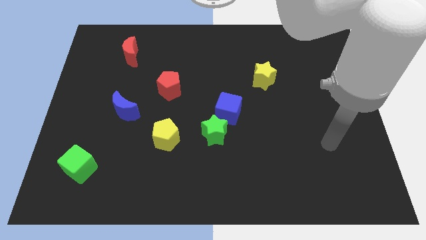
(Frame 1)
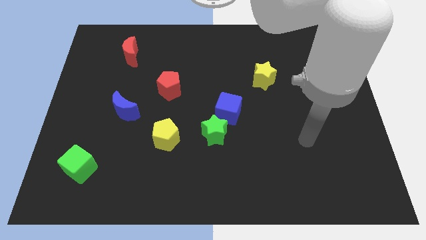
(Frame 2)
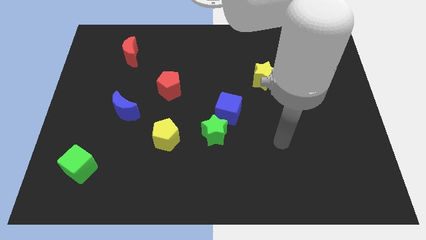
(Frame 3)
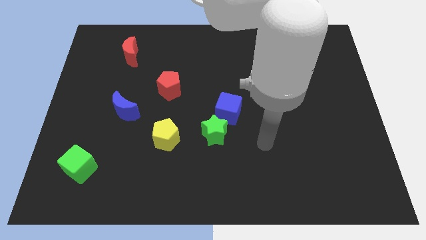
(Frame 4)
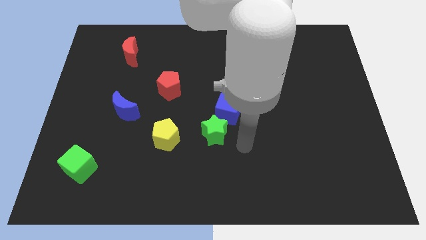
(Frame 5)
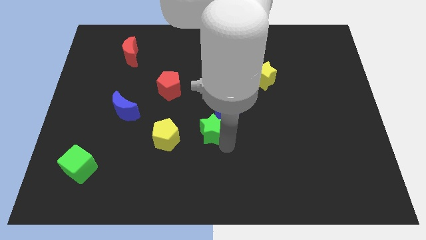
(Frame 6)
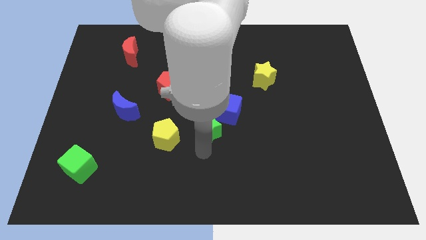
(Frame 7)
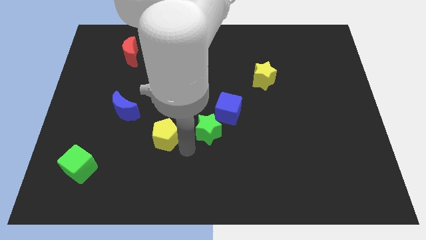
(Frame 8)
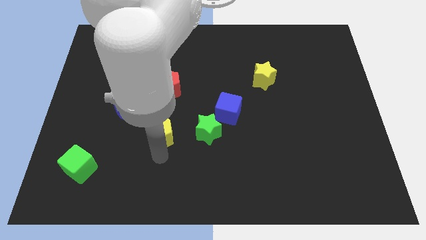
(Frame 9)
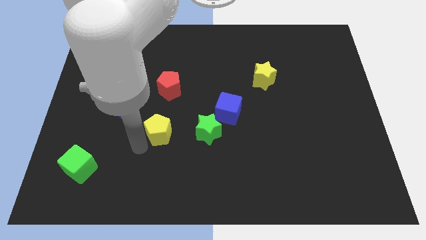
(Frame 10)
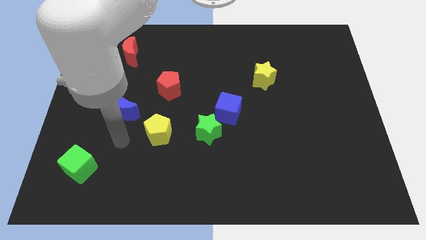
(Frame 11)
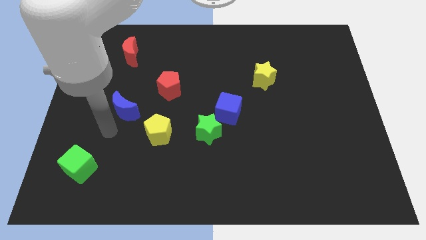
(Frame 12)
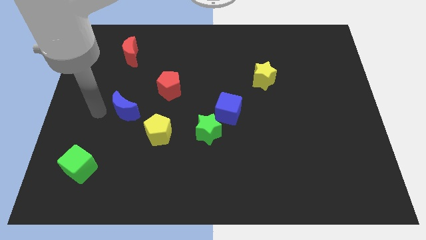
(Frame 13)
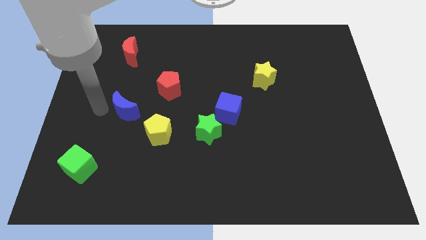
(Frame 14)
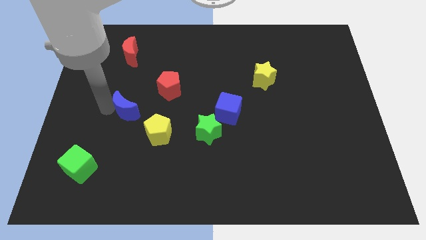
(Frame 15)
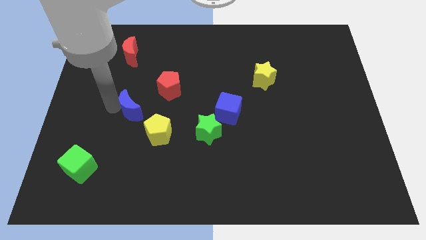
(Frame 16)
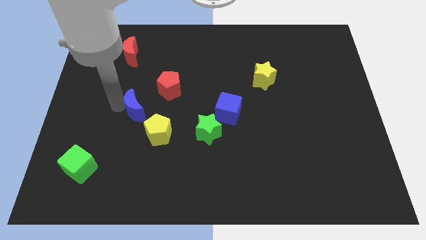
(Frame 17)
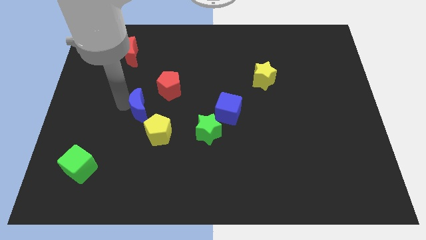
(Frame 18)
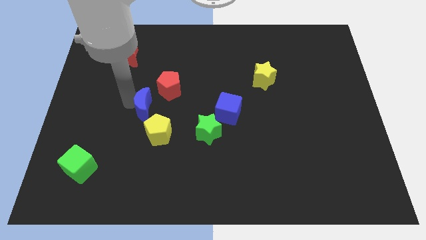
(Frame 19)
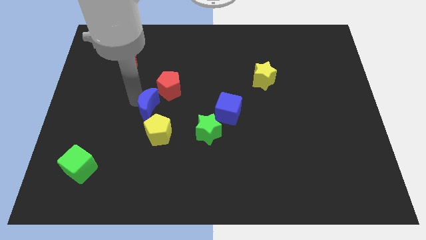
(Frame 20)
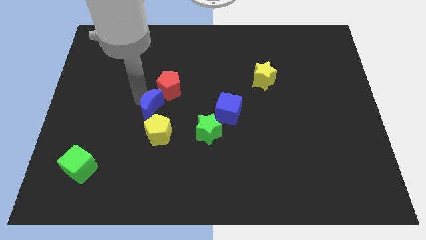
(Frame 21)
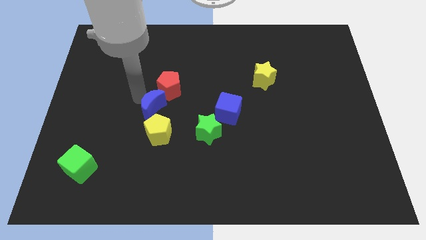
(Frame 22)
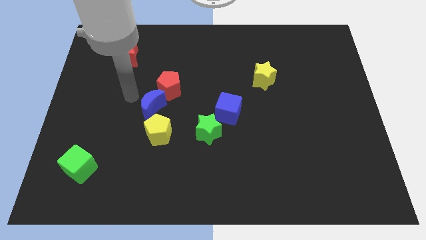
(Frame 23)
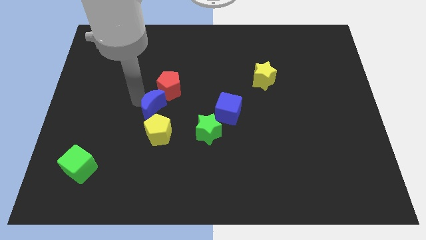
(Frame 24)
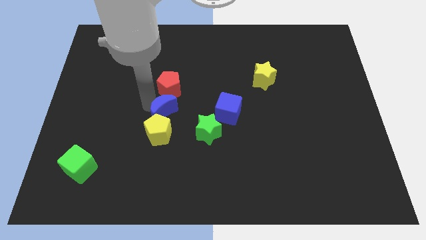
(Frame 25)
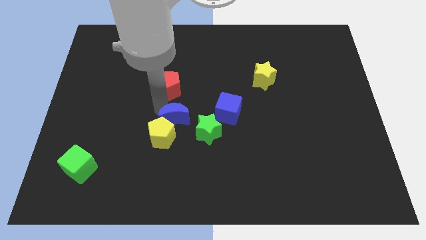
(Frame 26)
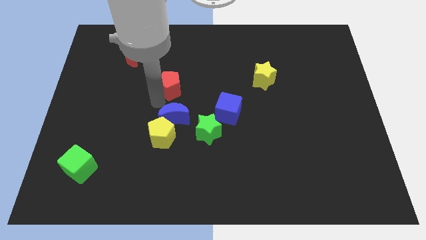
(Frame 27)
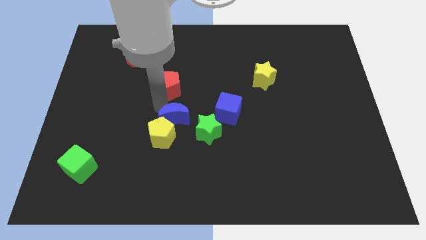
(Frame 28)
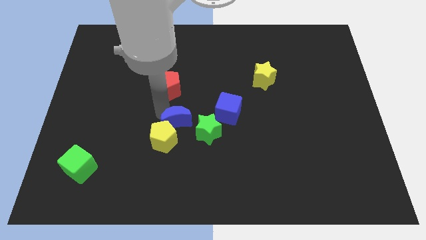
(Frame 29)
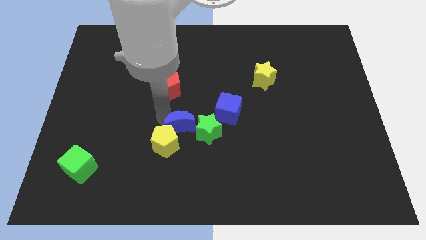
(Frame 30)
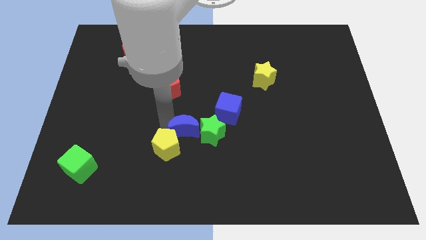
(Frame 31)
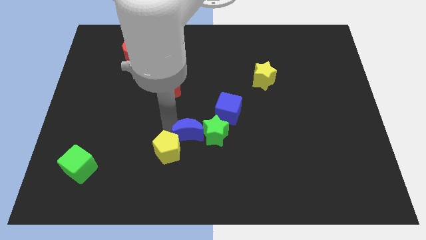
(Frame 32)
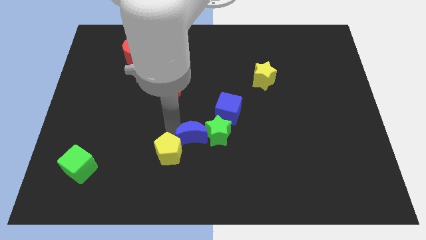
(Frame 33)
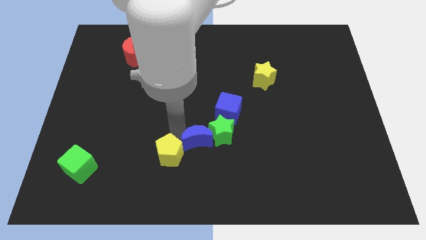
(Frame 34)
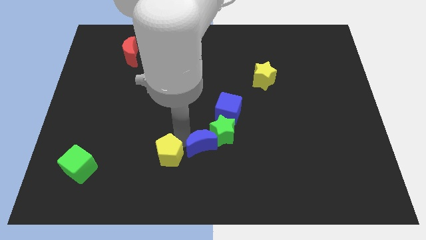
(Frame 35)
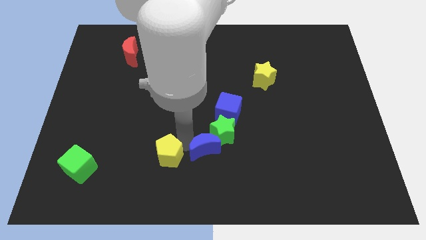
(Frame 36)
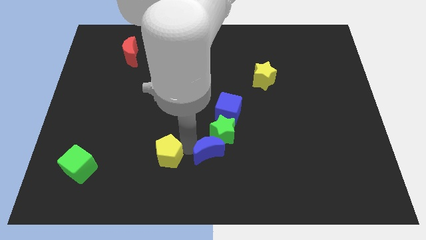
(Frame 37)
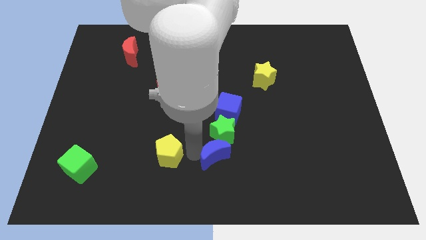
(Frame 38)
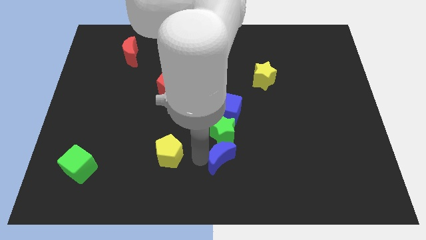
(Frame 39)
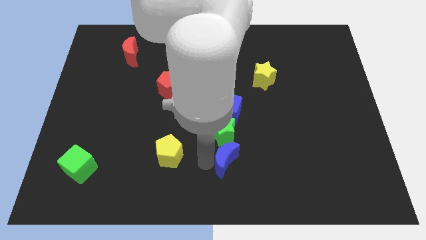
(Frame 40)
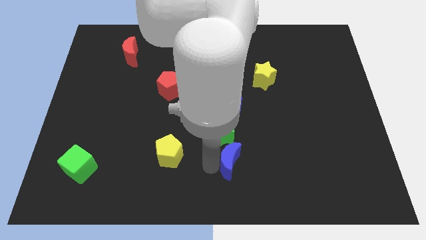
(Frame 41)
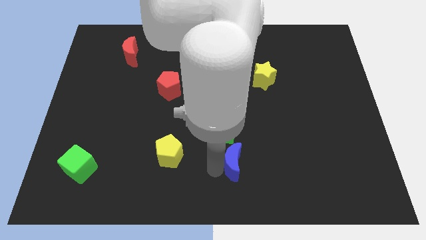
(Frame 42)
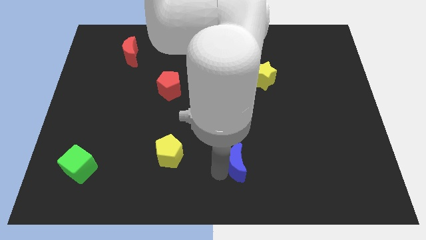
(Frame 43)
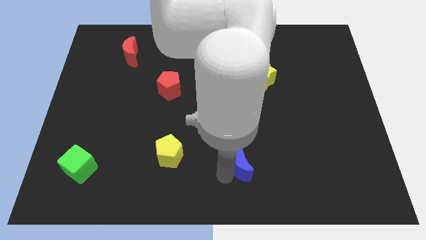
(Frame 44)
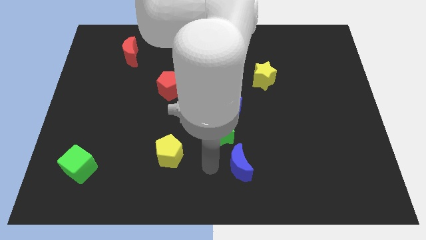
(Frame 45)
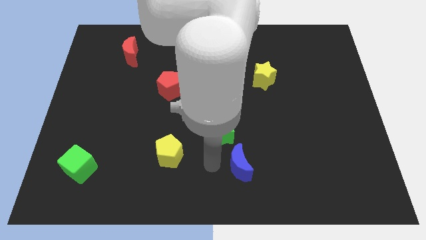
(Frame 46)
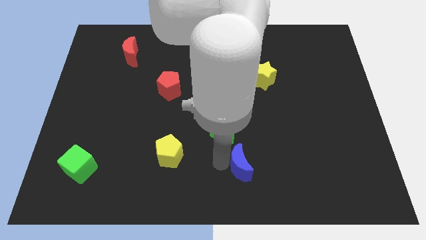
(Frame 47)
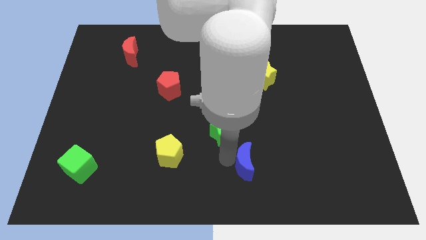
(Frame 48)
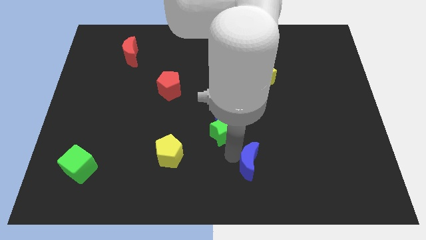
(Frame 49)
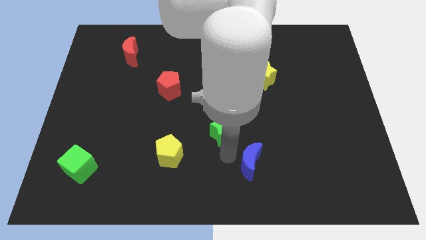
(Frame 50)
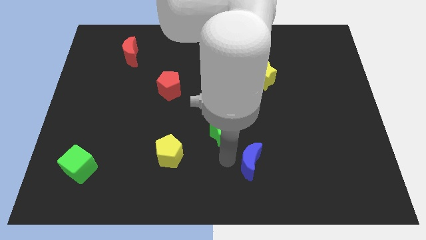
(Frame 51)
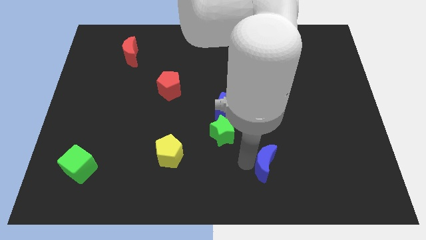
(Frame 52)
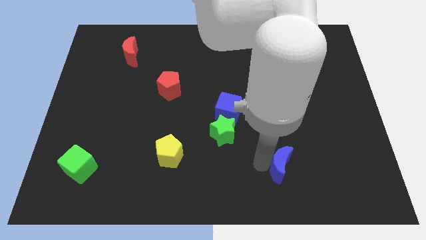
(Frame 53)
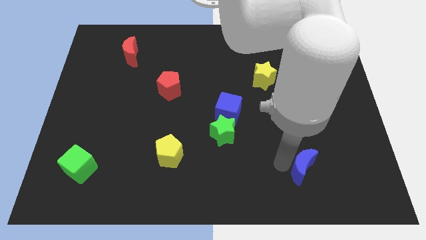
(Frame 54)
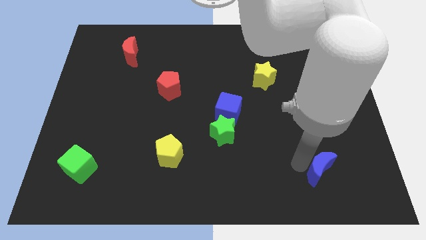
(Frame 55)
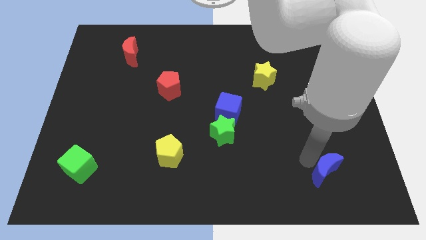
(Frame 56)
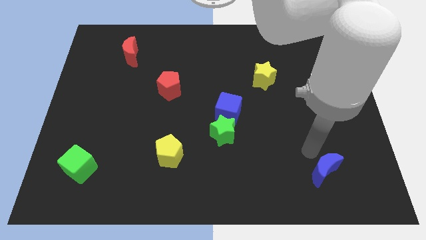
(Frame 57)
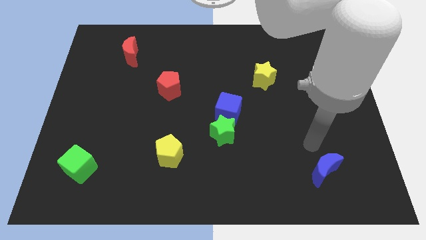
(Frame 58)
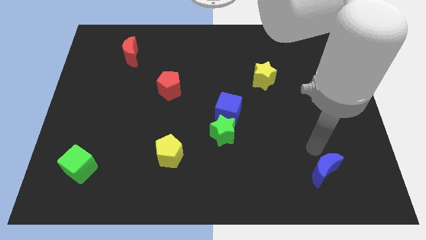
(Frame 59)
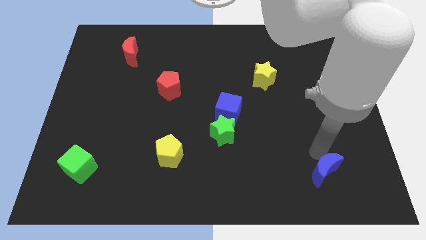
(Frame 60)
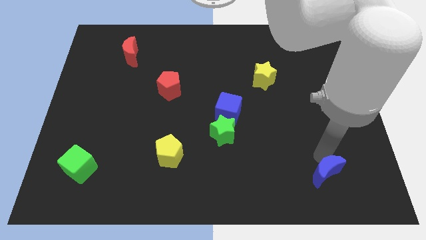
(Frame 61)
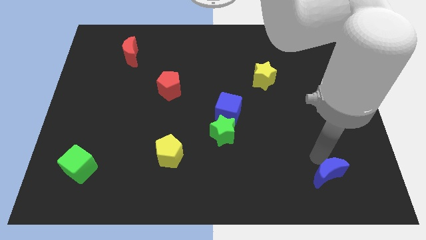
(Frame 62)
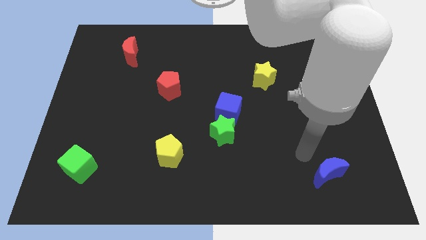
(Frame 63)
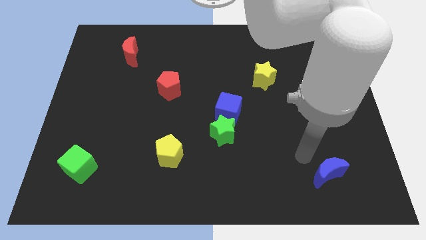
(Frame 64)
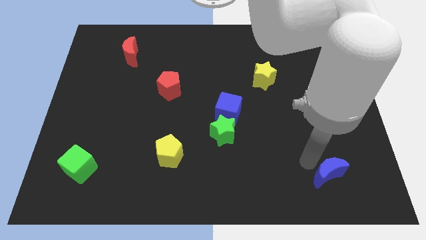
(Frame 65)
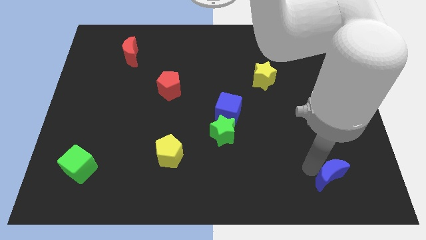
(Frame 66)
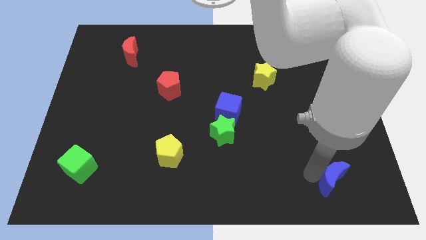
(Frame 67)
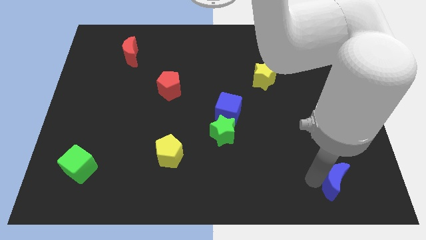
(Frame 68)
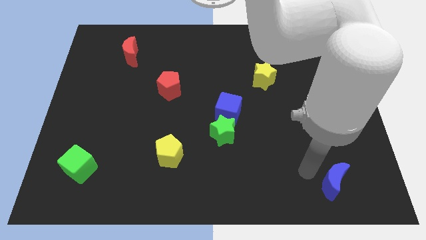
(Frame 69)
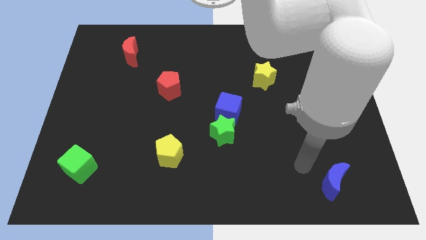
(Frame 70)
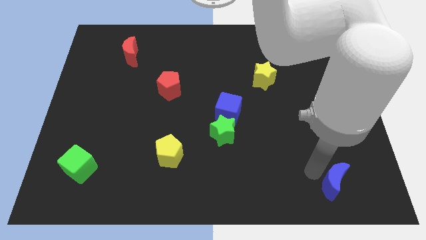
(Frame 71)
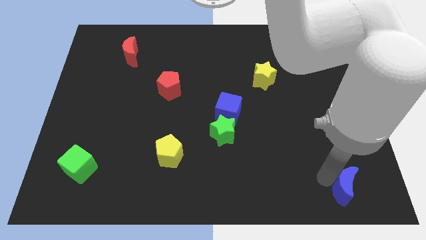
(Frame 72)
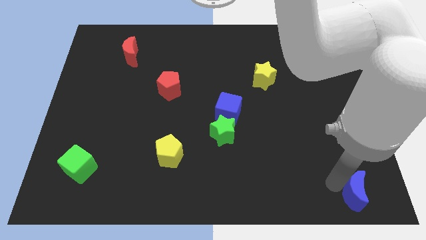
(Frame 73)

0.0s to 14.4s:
push the blue moon to the bottom right

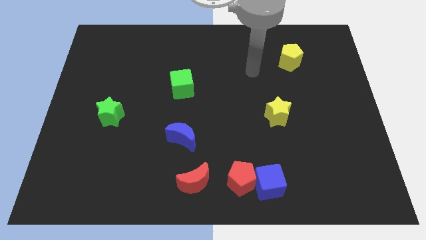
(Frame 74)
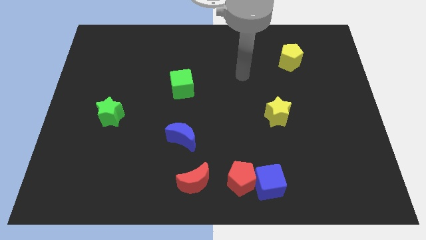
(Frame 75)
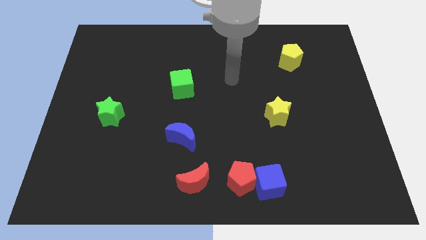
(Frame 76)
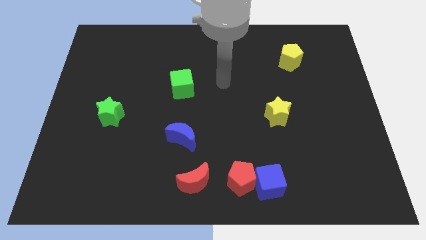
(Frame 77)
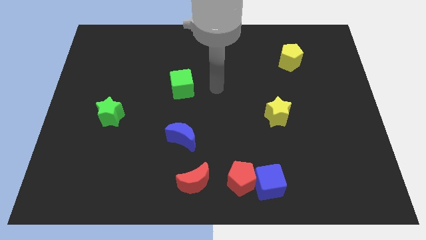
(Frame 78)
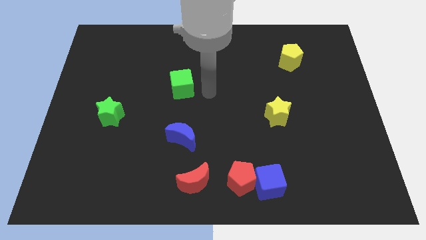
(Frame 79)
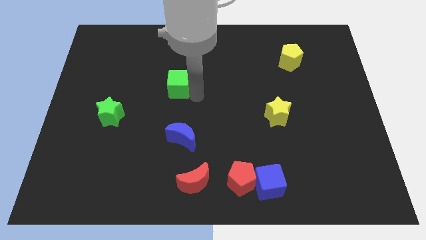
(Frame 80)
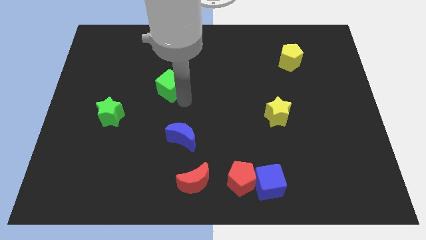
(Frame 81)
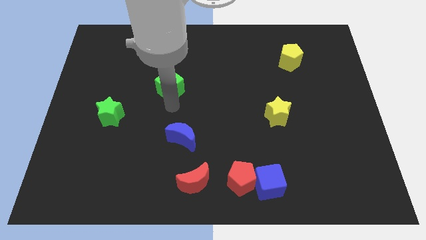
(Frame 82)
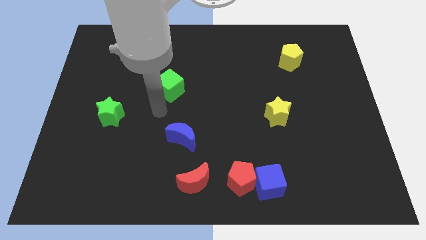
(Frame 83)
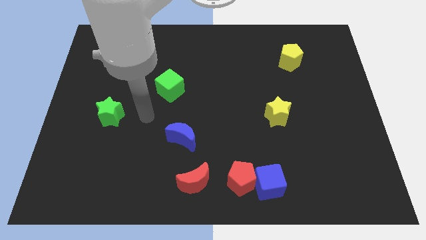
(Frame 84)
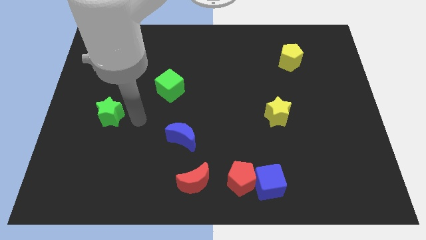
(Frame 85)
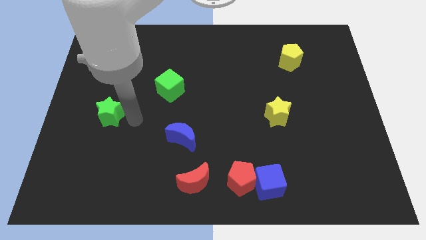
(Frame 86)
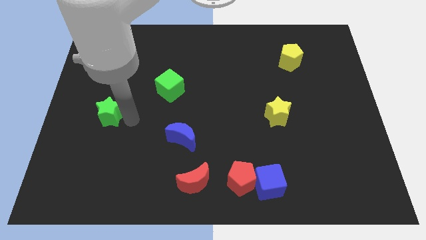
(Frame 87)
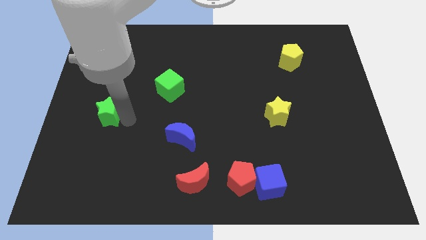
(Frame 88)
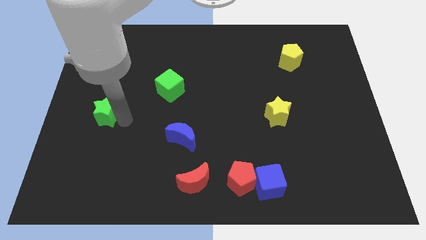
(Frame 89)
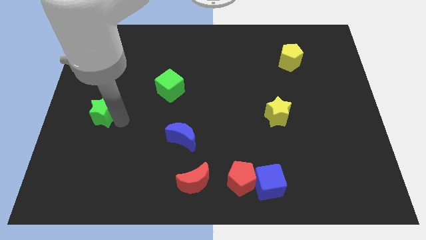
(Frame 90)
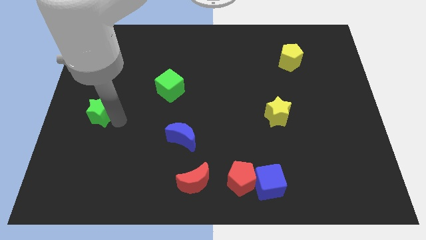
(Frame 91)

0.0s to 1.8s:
put the green star to the center left
